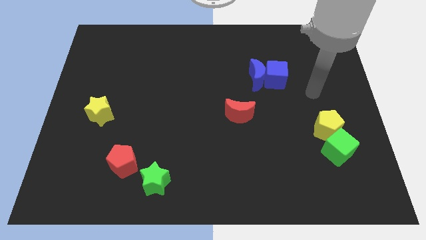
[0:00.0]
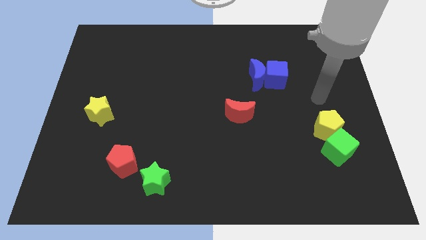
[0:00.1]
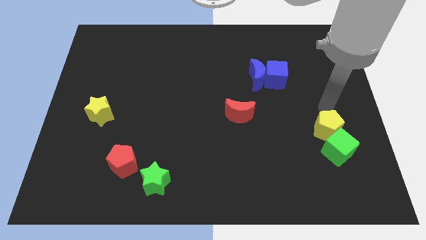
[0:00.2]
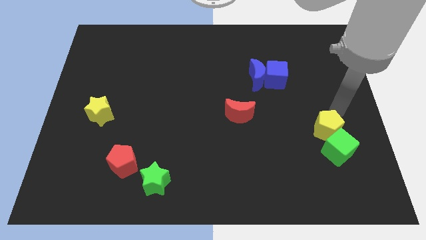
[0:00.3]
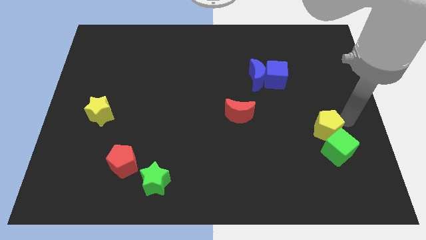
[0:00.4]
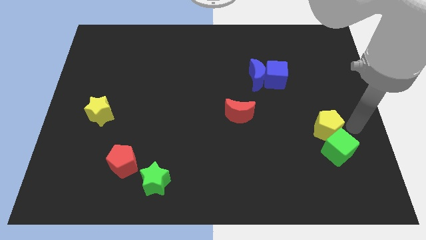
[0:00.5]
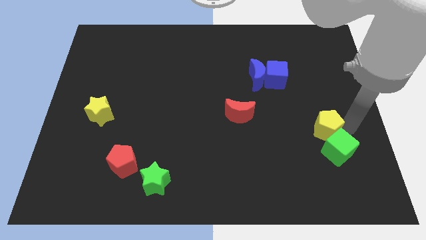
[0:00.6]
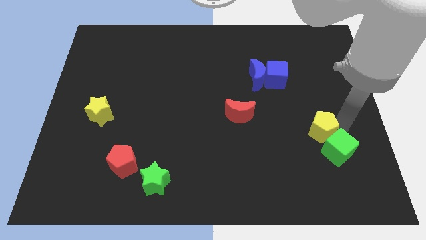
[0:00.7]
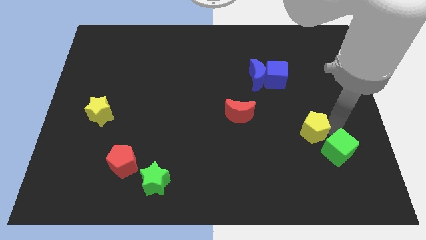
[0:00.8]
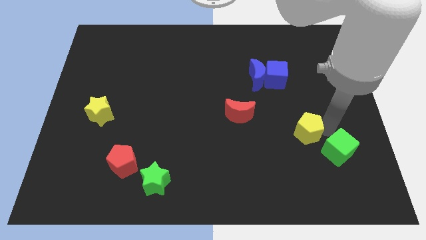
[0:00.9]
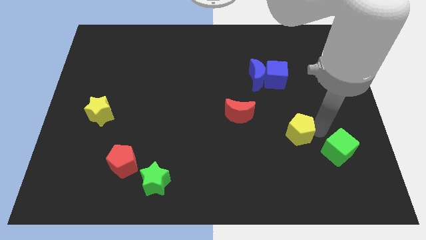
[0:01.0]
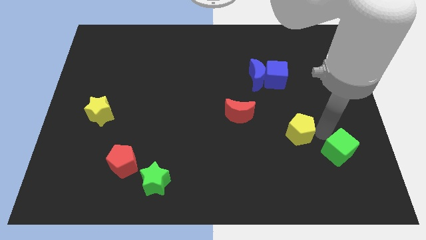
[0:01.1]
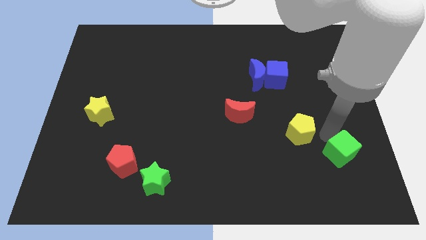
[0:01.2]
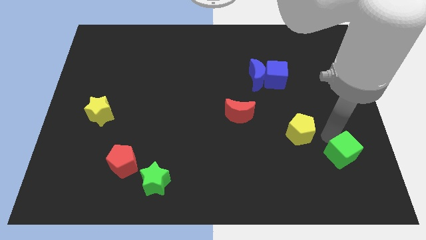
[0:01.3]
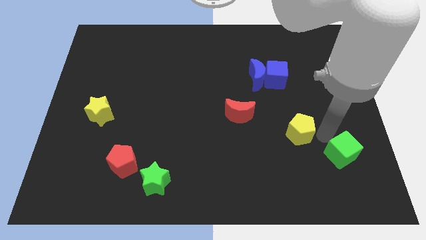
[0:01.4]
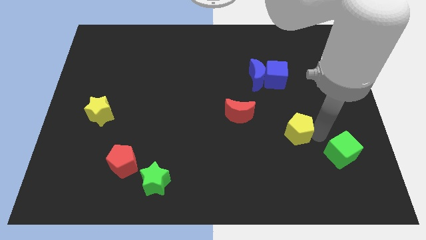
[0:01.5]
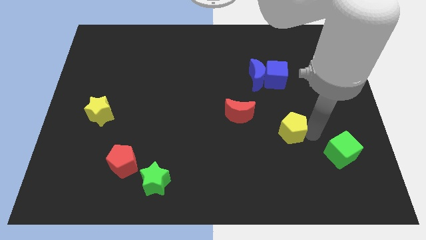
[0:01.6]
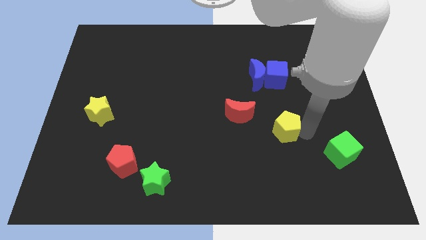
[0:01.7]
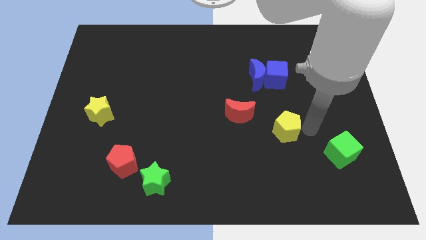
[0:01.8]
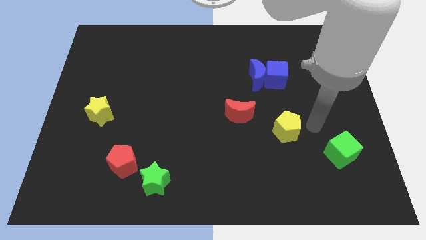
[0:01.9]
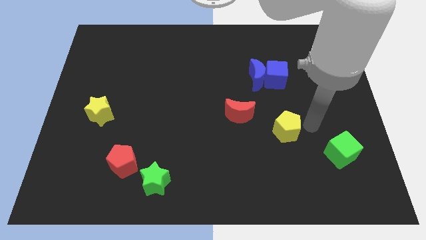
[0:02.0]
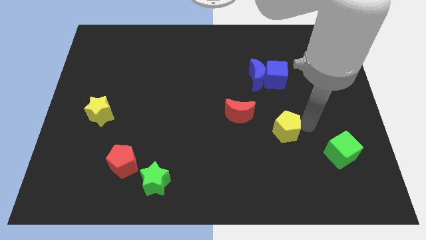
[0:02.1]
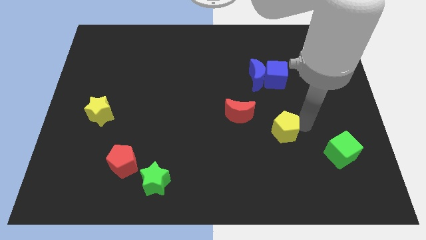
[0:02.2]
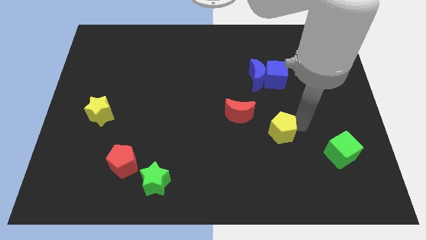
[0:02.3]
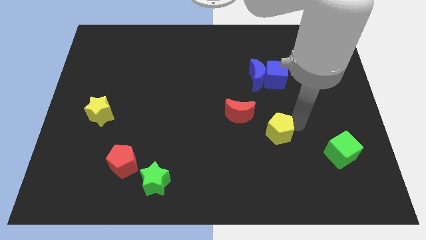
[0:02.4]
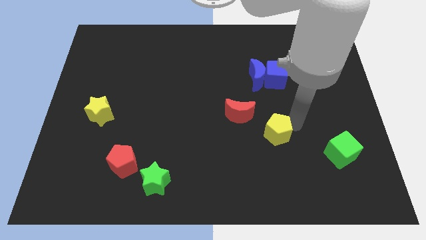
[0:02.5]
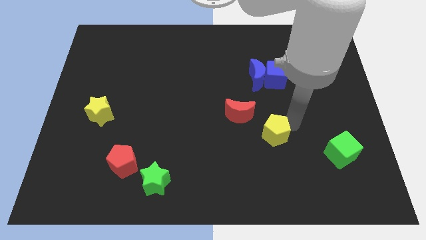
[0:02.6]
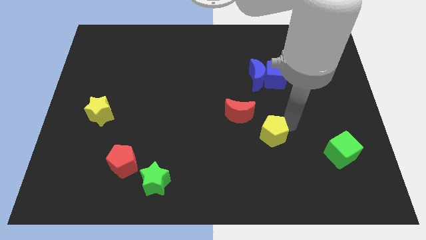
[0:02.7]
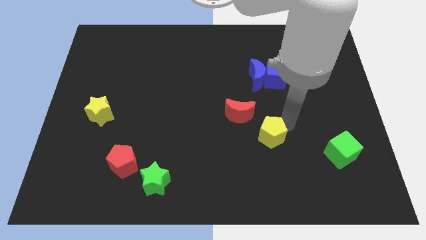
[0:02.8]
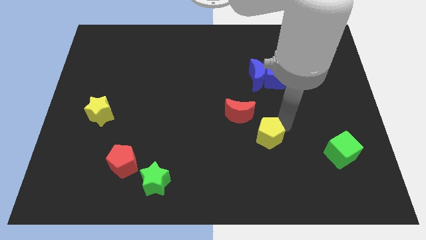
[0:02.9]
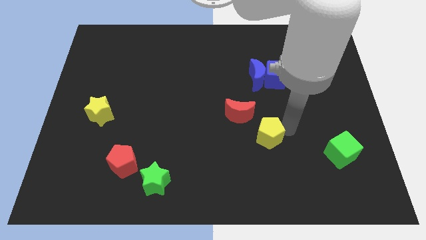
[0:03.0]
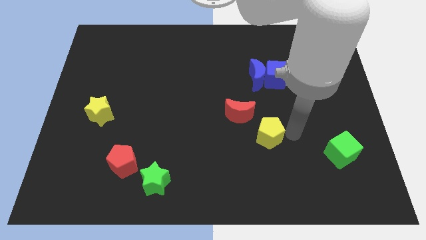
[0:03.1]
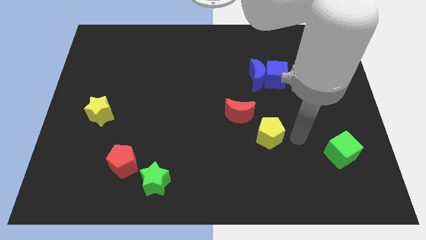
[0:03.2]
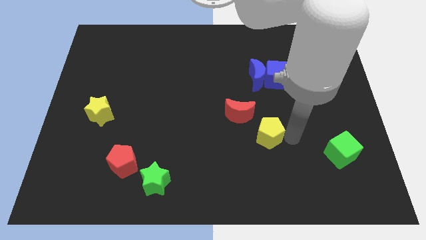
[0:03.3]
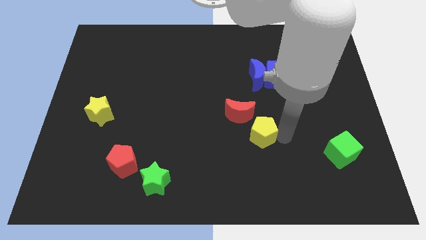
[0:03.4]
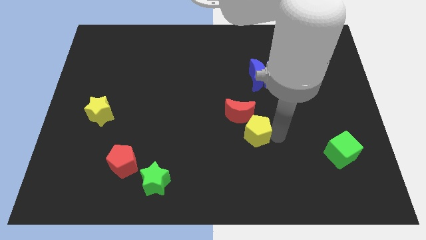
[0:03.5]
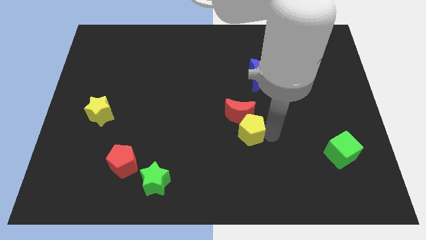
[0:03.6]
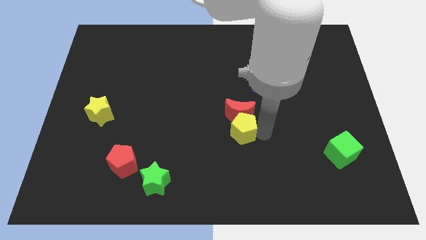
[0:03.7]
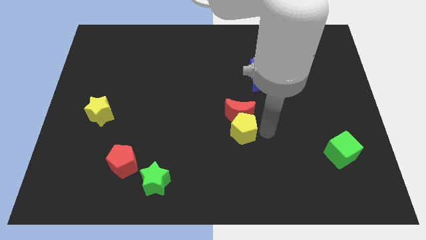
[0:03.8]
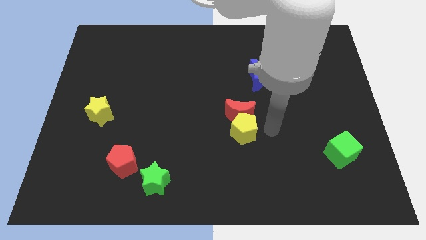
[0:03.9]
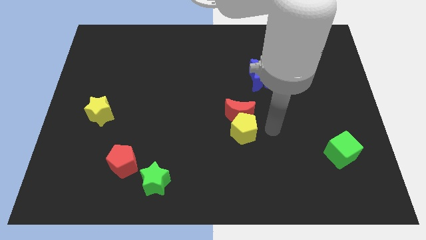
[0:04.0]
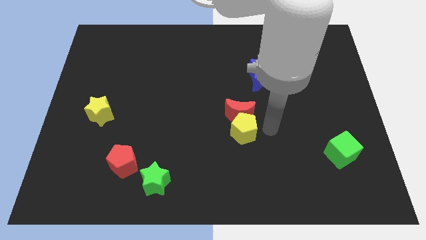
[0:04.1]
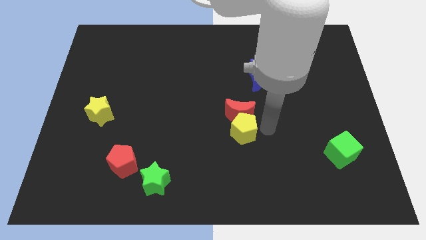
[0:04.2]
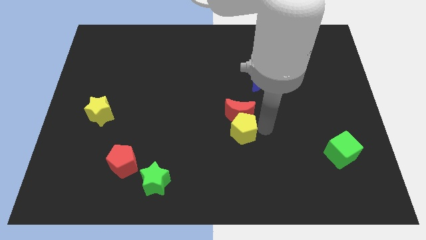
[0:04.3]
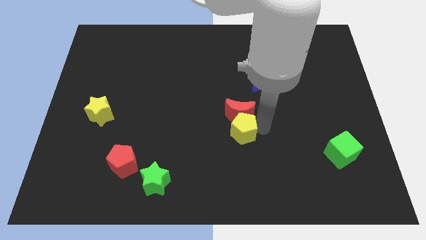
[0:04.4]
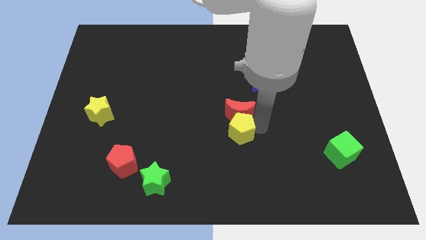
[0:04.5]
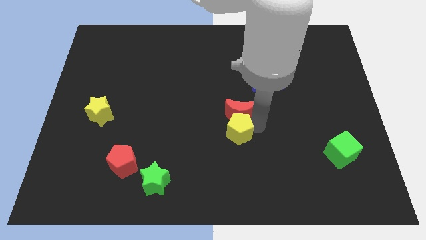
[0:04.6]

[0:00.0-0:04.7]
move the yellow pentagon left

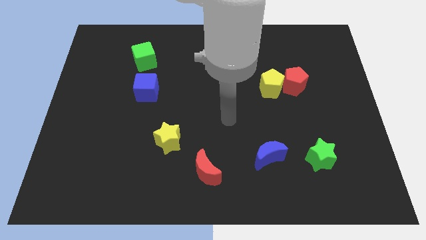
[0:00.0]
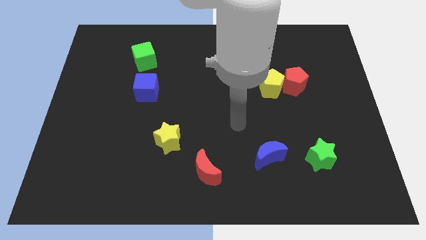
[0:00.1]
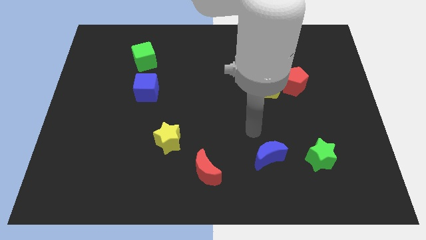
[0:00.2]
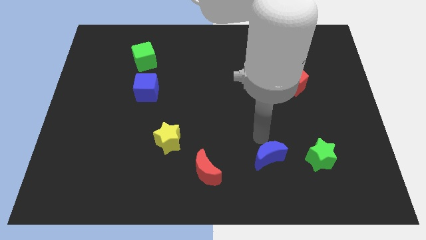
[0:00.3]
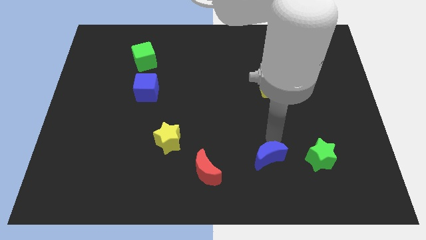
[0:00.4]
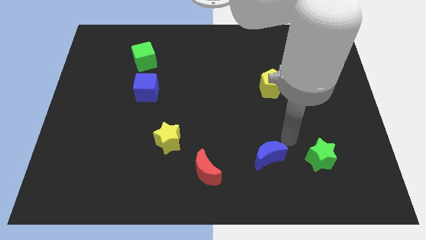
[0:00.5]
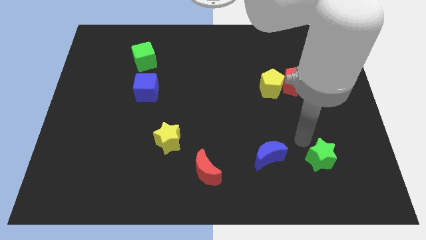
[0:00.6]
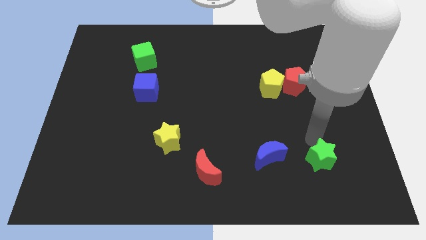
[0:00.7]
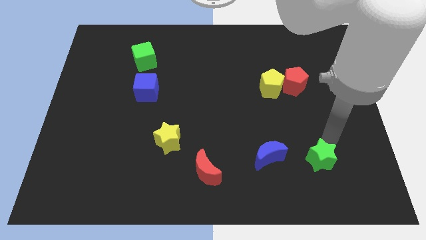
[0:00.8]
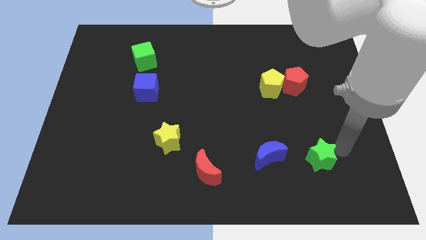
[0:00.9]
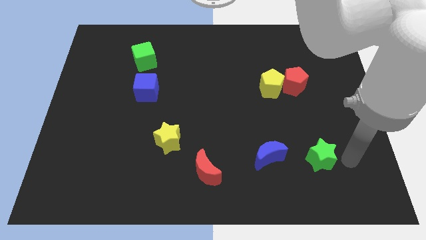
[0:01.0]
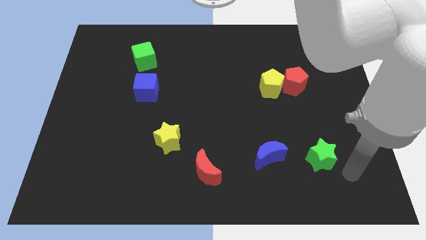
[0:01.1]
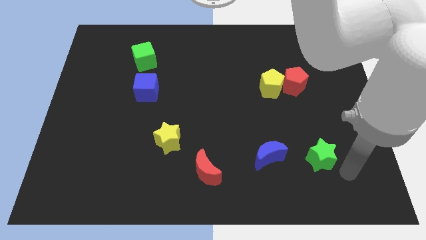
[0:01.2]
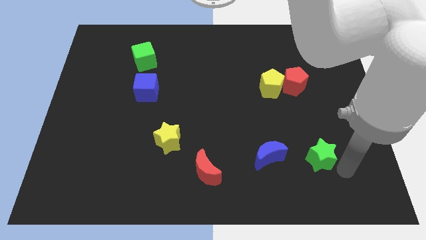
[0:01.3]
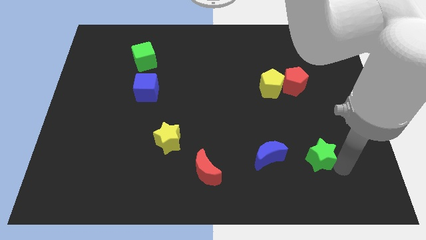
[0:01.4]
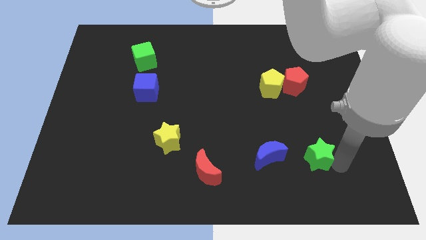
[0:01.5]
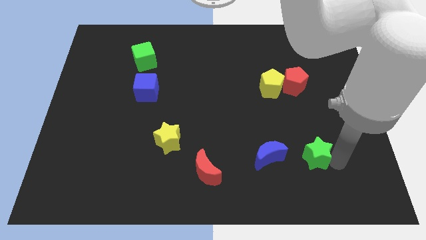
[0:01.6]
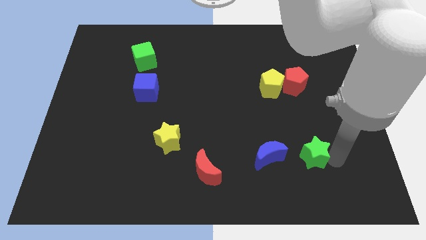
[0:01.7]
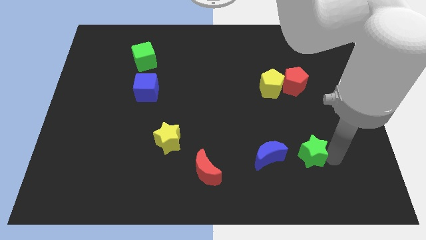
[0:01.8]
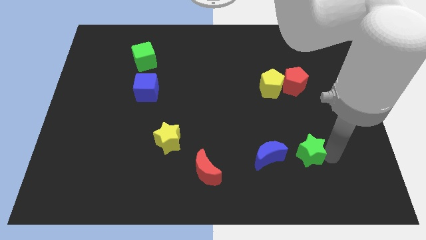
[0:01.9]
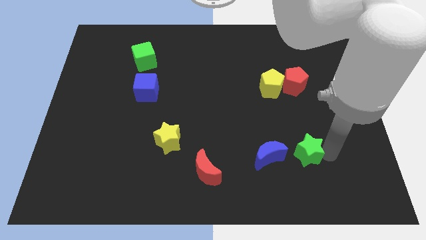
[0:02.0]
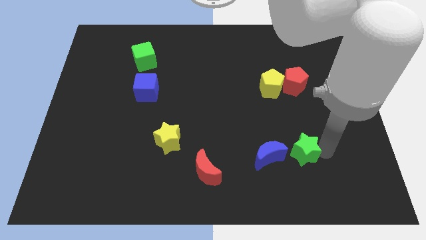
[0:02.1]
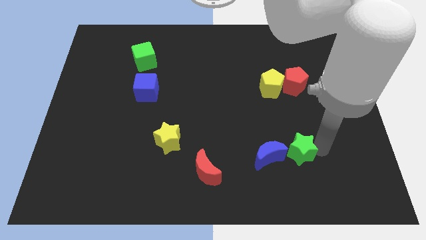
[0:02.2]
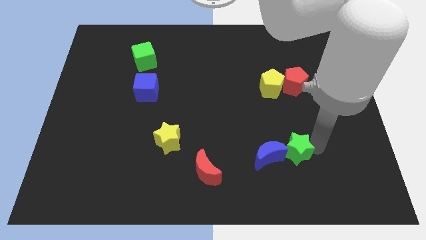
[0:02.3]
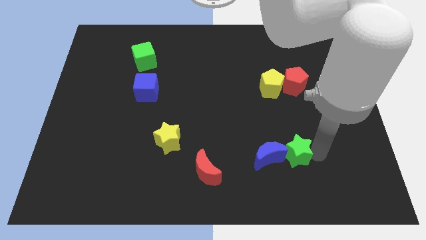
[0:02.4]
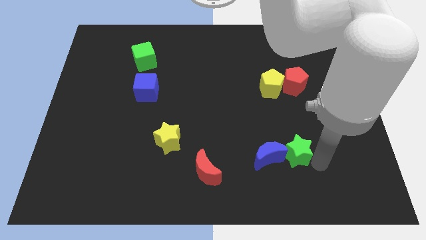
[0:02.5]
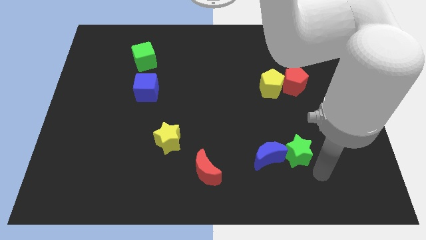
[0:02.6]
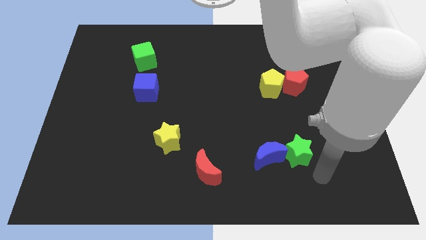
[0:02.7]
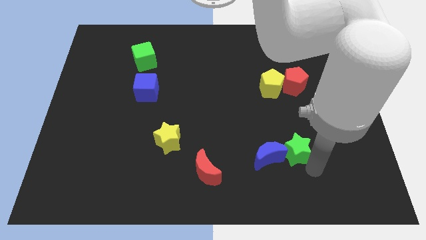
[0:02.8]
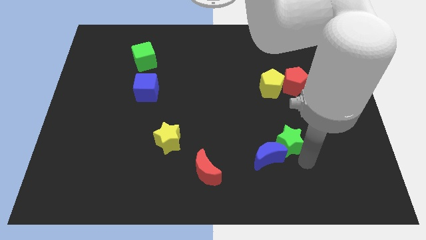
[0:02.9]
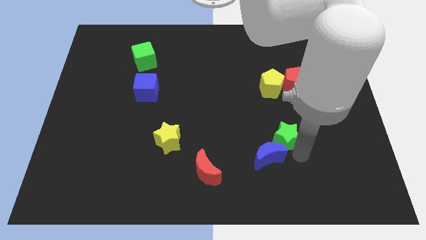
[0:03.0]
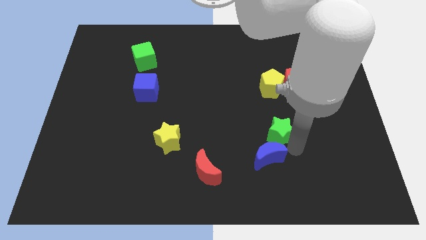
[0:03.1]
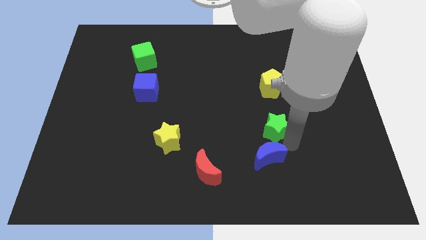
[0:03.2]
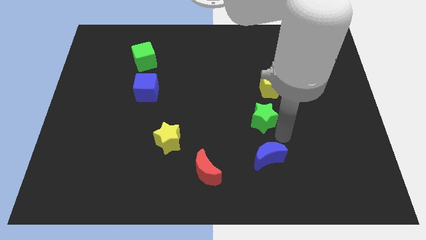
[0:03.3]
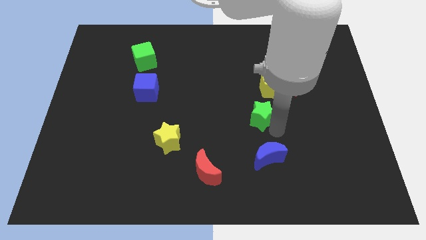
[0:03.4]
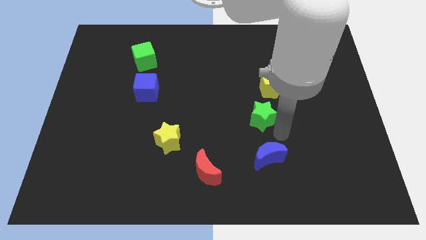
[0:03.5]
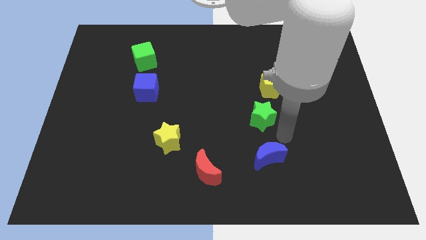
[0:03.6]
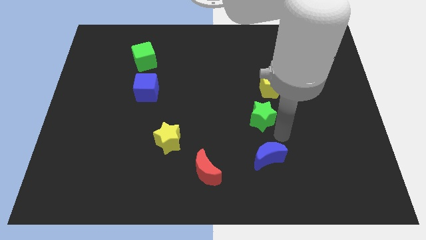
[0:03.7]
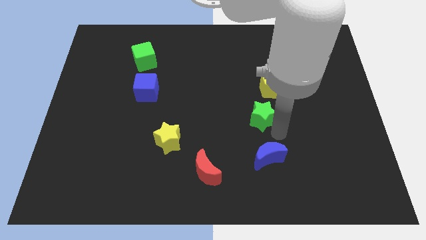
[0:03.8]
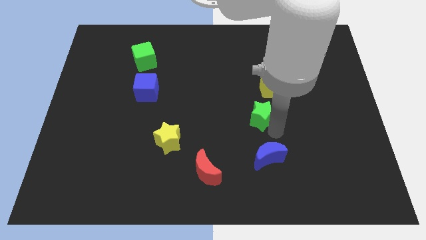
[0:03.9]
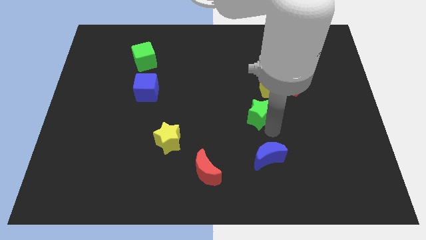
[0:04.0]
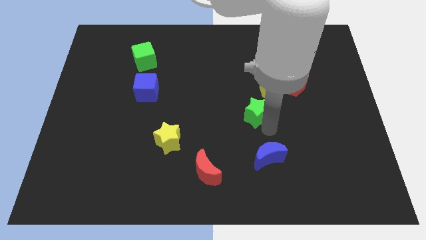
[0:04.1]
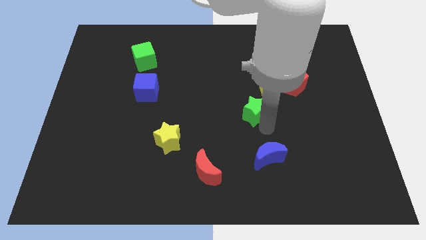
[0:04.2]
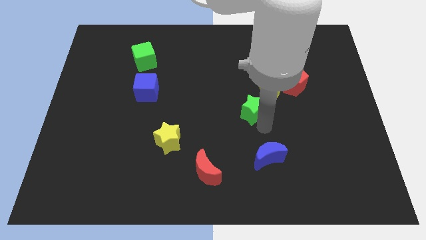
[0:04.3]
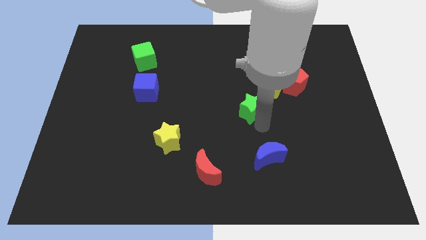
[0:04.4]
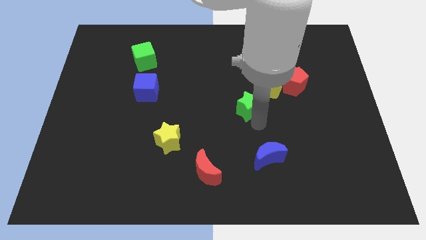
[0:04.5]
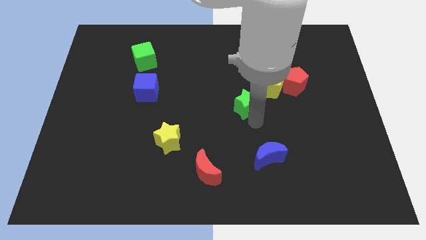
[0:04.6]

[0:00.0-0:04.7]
move the green star up and left
